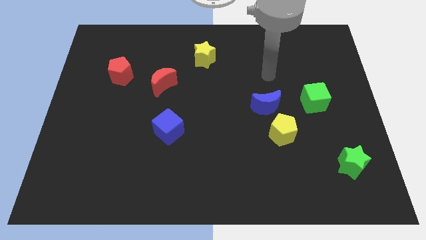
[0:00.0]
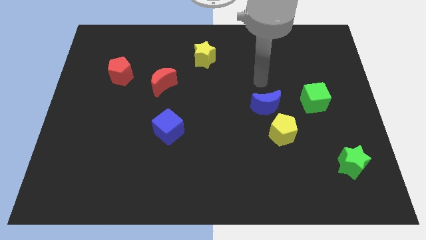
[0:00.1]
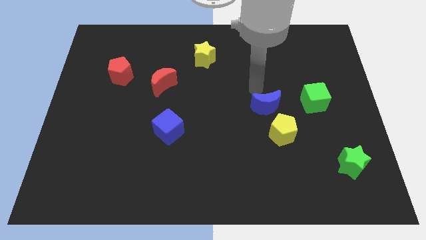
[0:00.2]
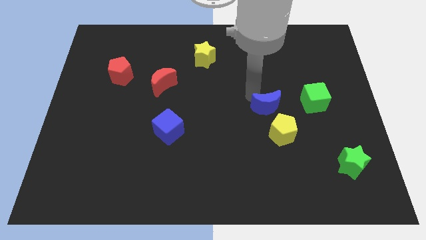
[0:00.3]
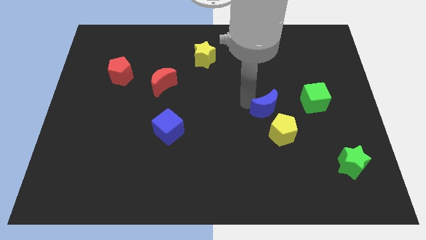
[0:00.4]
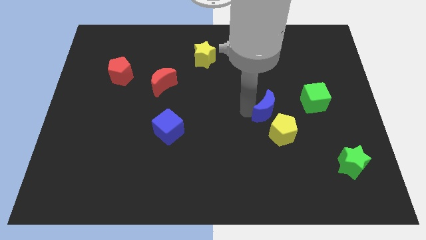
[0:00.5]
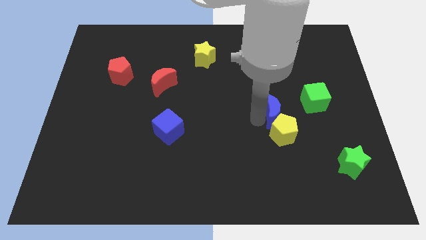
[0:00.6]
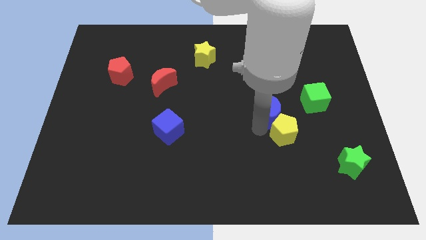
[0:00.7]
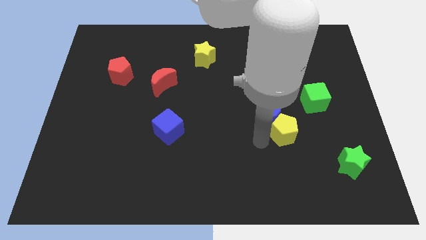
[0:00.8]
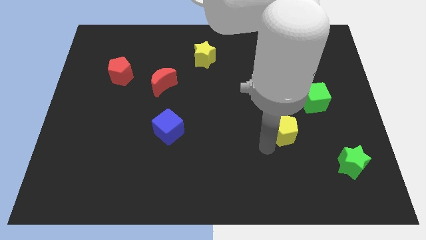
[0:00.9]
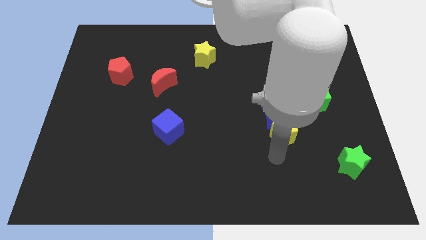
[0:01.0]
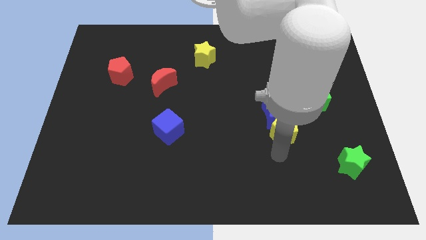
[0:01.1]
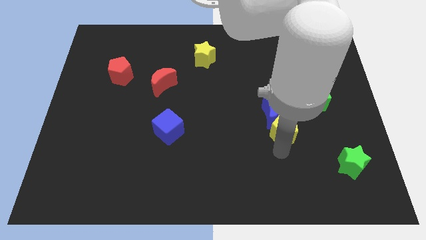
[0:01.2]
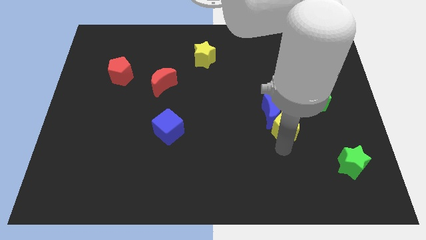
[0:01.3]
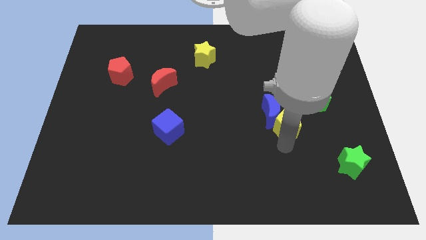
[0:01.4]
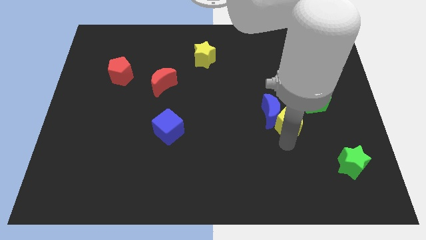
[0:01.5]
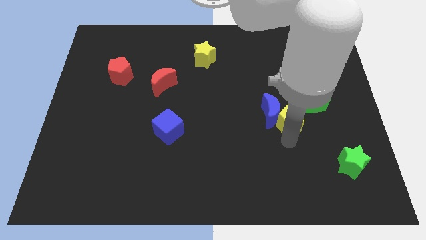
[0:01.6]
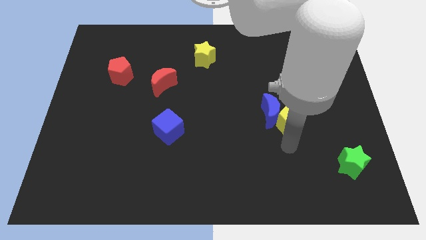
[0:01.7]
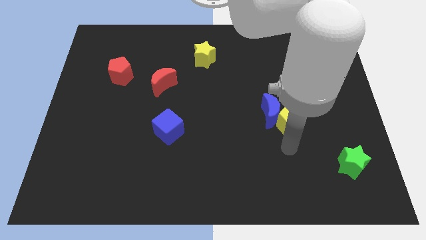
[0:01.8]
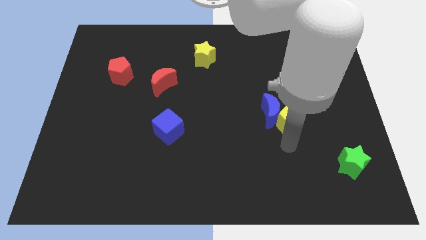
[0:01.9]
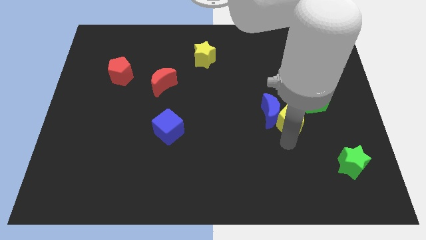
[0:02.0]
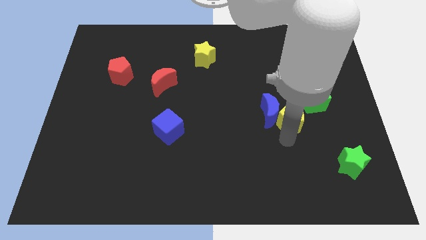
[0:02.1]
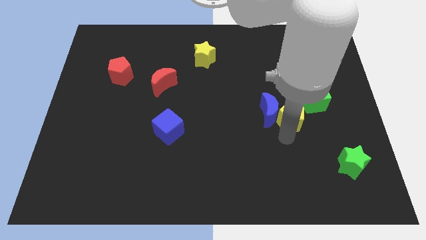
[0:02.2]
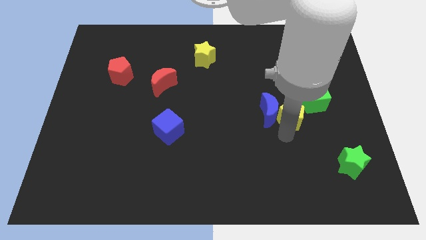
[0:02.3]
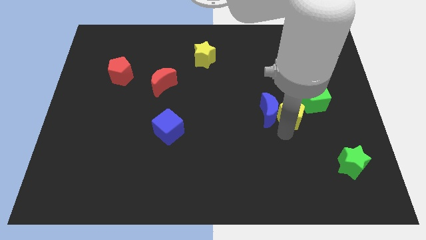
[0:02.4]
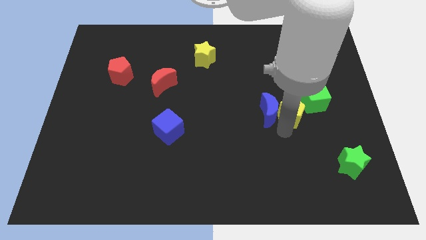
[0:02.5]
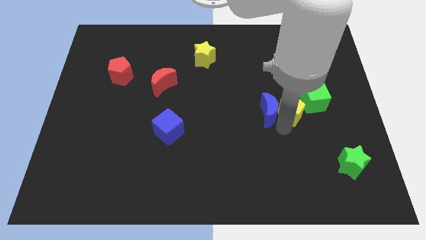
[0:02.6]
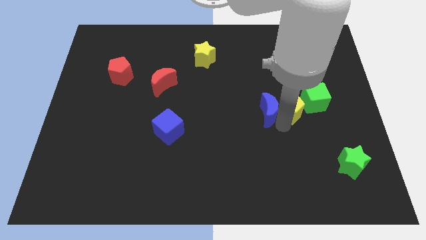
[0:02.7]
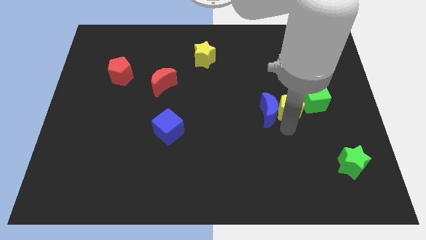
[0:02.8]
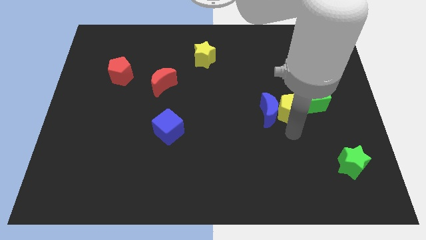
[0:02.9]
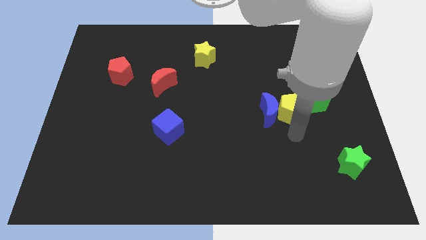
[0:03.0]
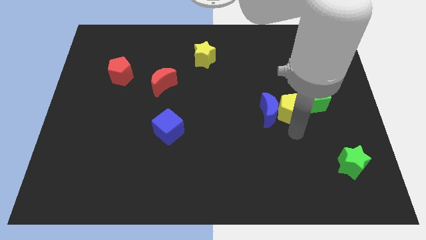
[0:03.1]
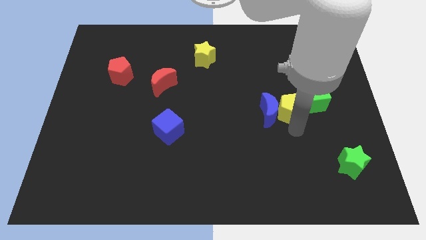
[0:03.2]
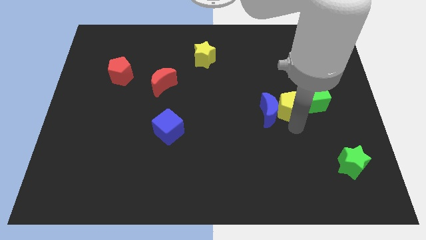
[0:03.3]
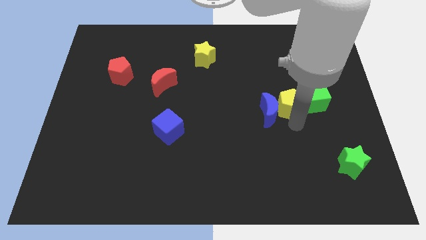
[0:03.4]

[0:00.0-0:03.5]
move the yellow pentagon up slightly

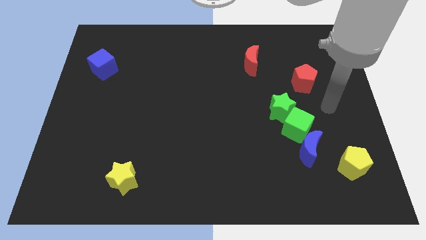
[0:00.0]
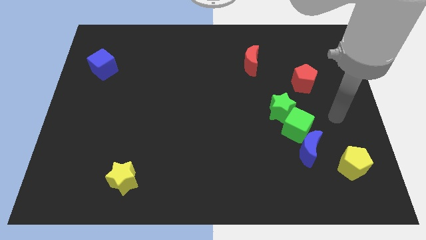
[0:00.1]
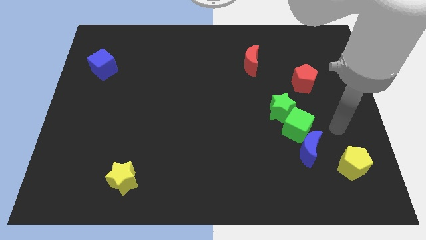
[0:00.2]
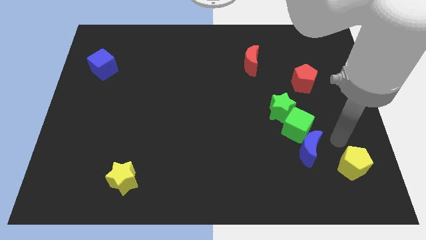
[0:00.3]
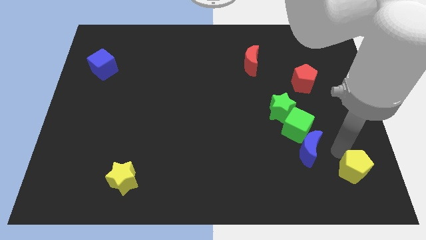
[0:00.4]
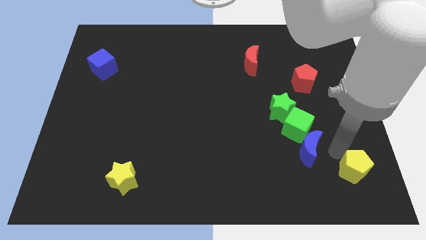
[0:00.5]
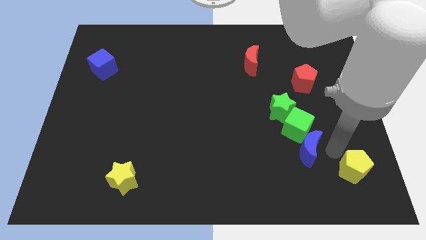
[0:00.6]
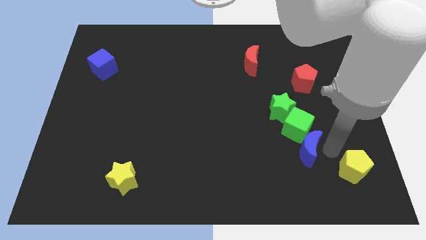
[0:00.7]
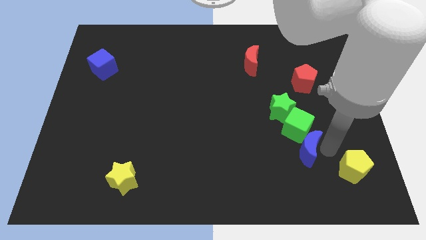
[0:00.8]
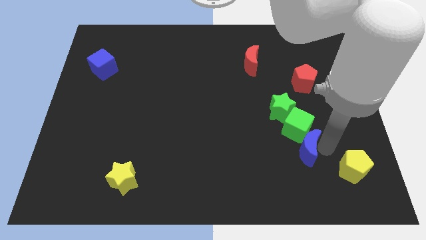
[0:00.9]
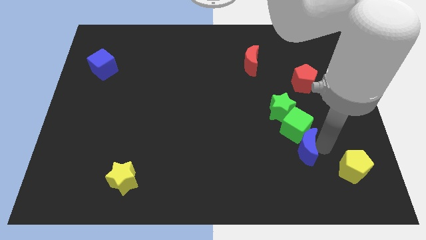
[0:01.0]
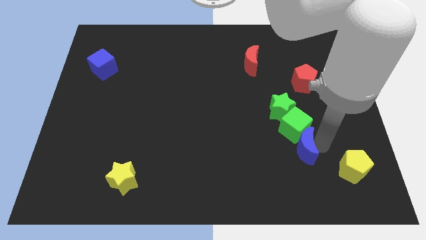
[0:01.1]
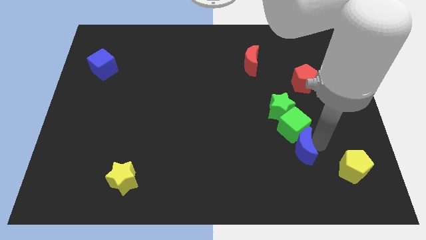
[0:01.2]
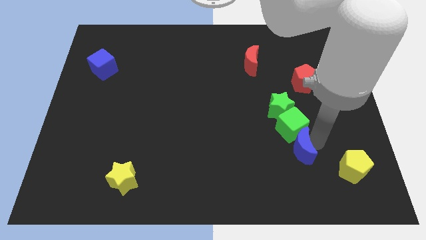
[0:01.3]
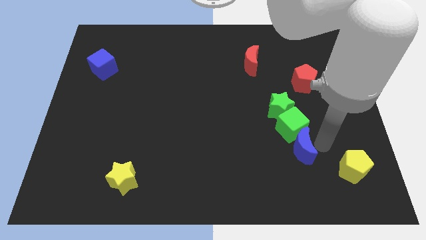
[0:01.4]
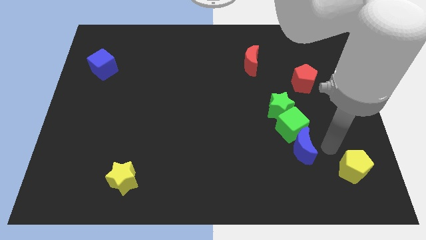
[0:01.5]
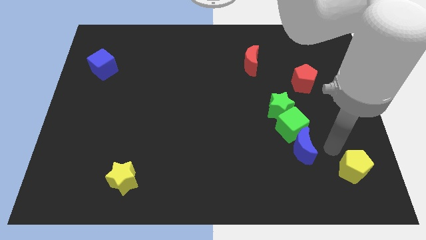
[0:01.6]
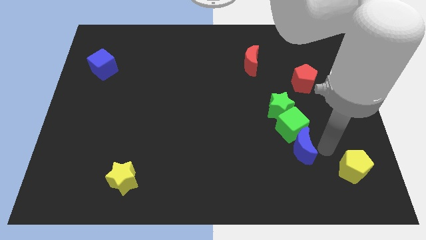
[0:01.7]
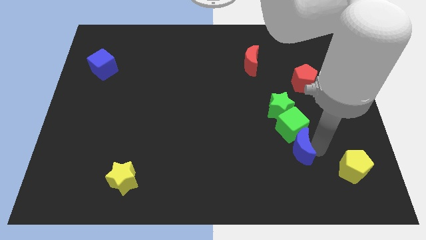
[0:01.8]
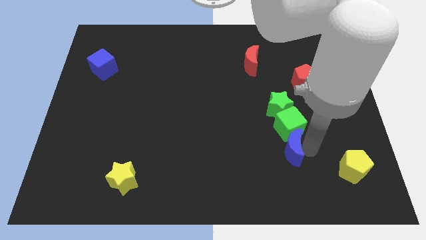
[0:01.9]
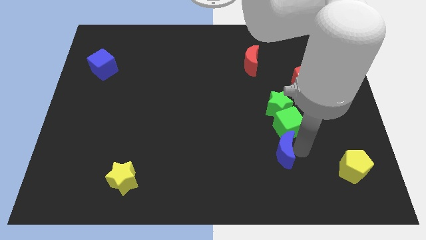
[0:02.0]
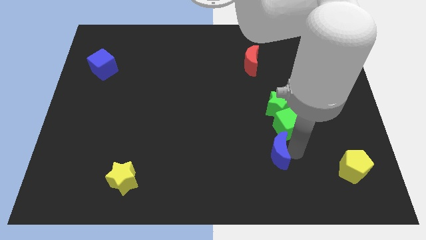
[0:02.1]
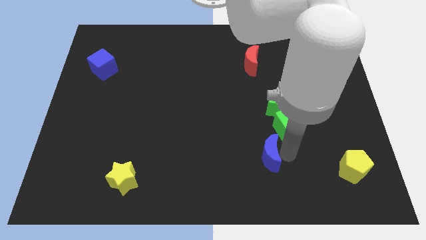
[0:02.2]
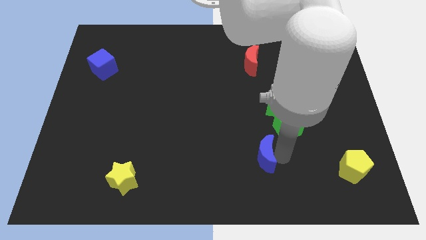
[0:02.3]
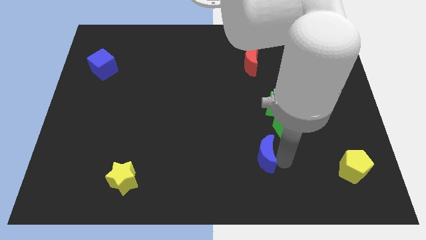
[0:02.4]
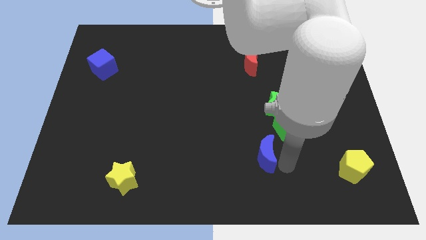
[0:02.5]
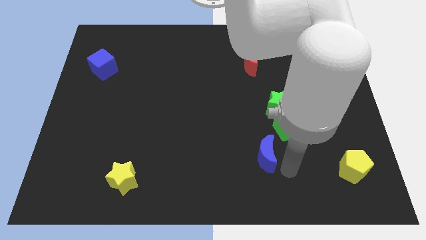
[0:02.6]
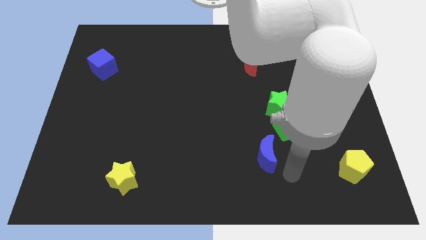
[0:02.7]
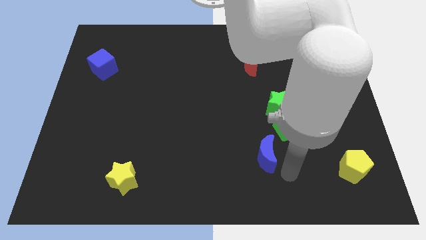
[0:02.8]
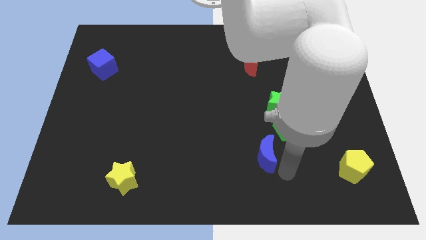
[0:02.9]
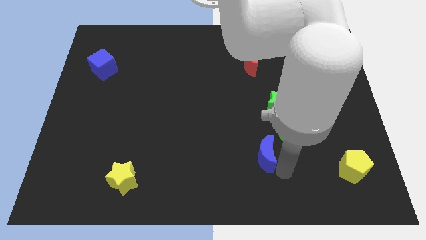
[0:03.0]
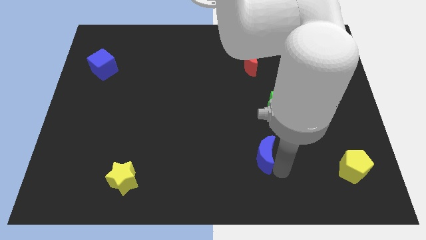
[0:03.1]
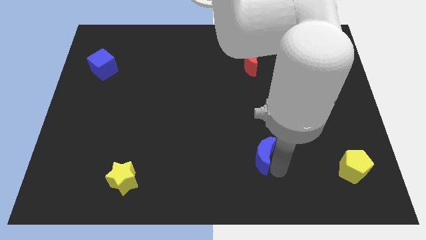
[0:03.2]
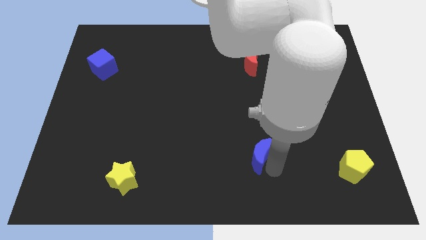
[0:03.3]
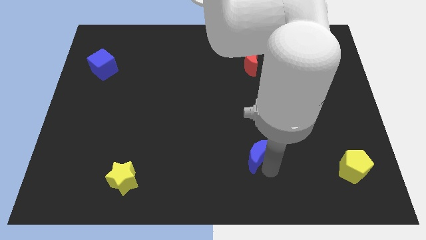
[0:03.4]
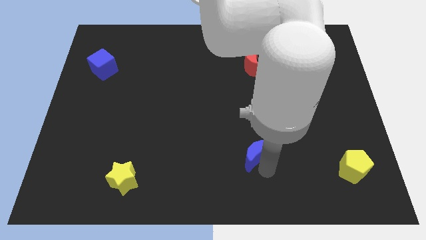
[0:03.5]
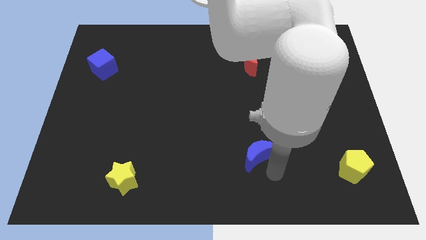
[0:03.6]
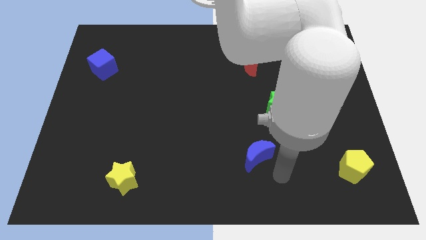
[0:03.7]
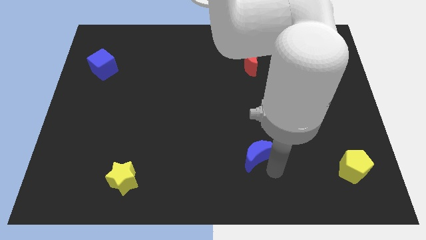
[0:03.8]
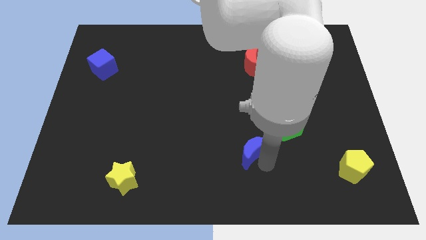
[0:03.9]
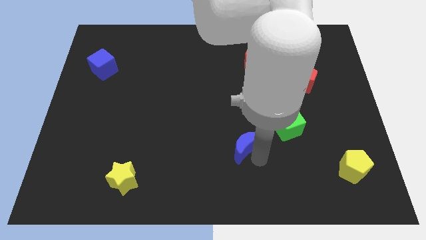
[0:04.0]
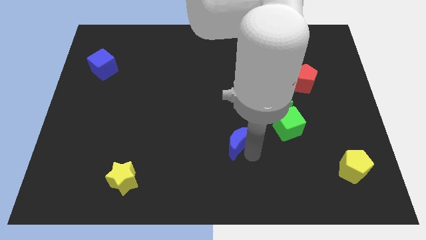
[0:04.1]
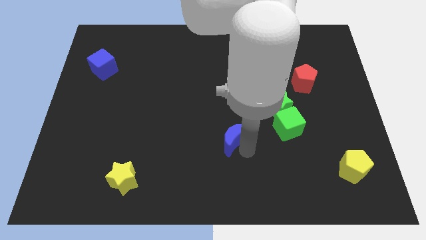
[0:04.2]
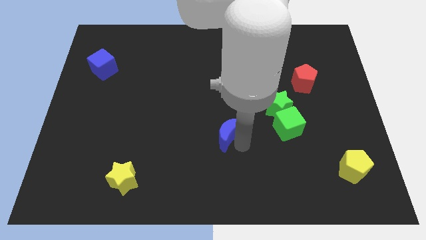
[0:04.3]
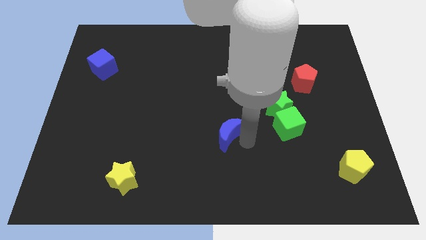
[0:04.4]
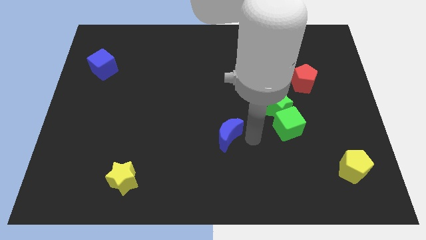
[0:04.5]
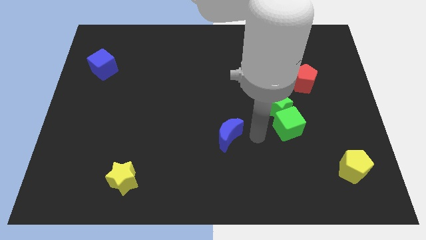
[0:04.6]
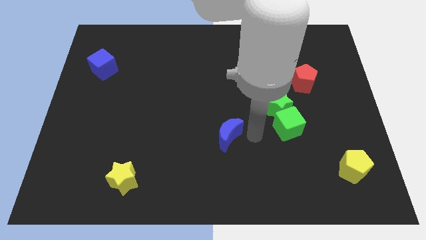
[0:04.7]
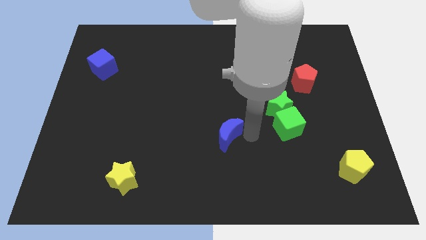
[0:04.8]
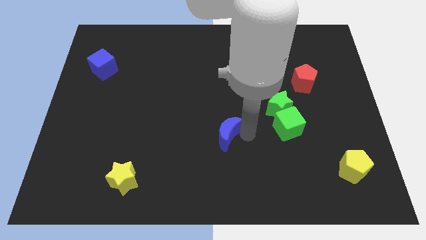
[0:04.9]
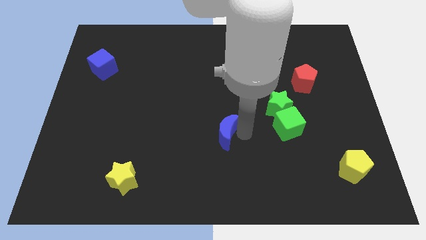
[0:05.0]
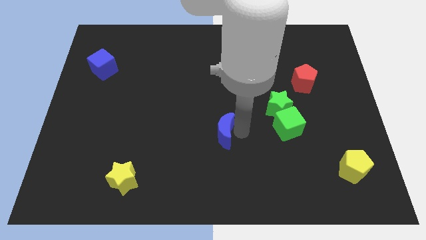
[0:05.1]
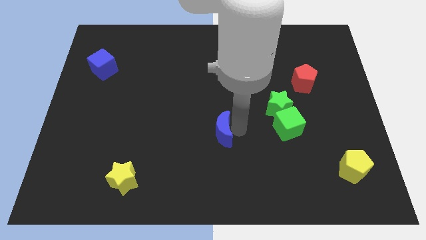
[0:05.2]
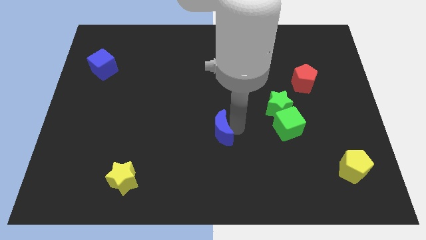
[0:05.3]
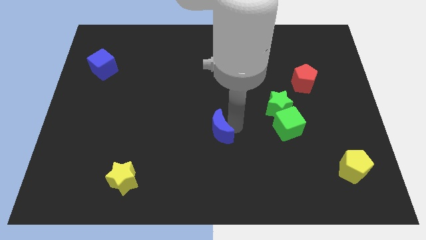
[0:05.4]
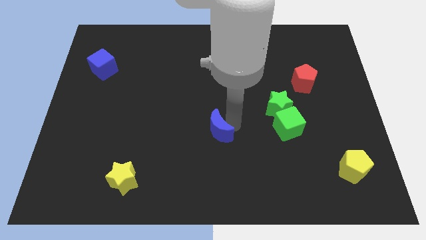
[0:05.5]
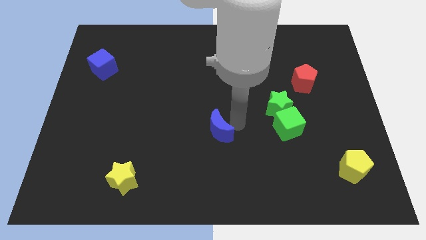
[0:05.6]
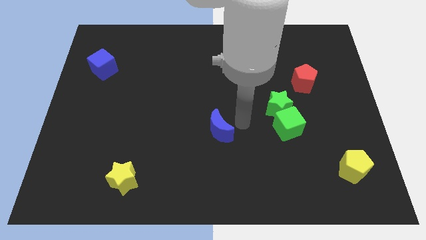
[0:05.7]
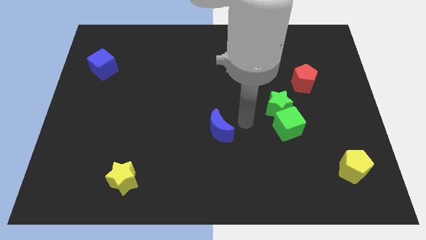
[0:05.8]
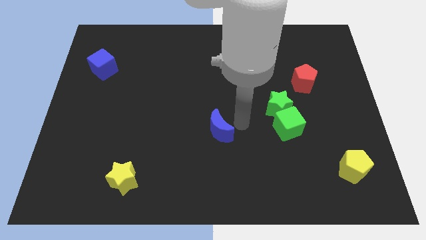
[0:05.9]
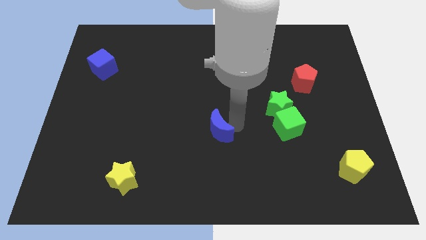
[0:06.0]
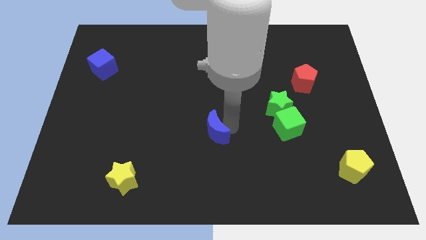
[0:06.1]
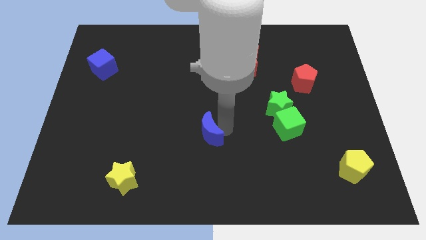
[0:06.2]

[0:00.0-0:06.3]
push the blue moon left
